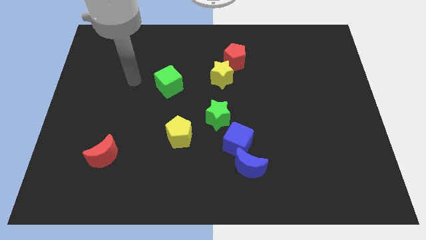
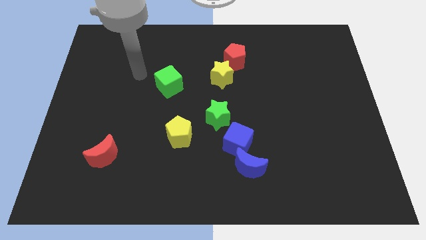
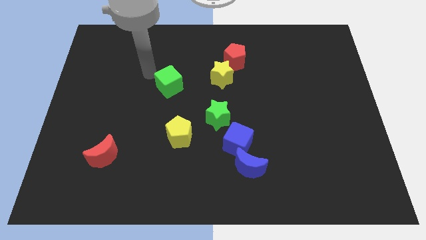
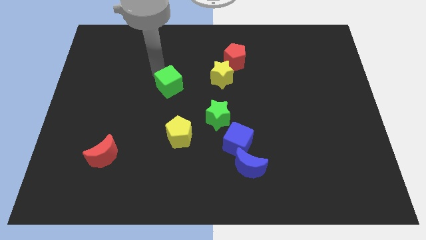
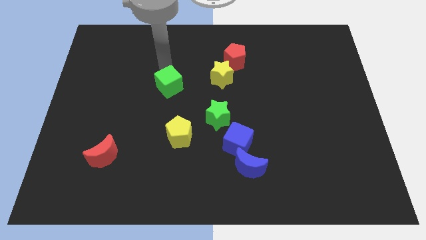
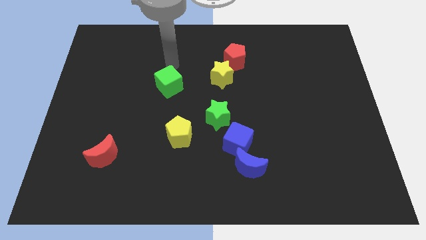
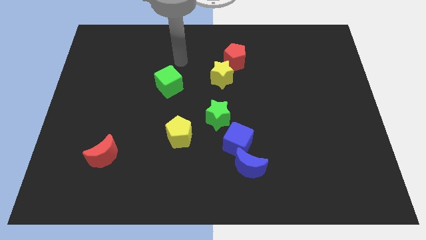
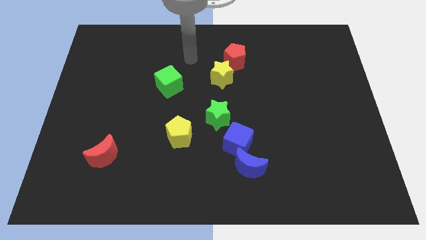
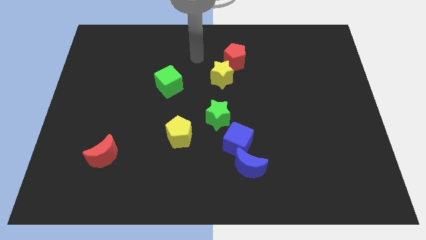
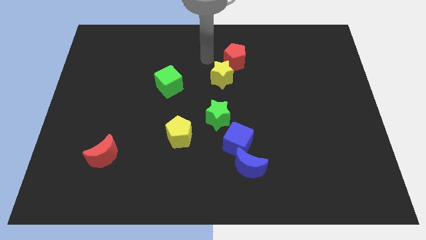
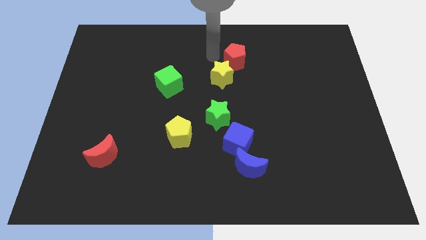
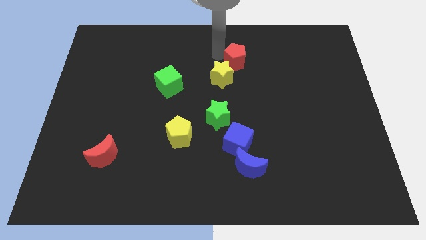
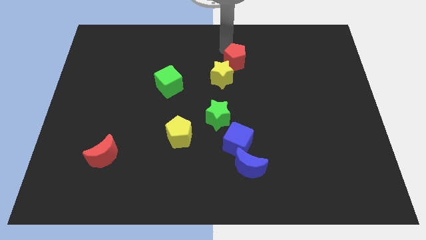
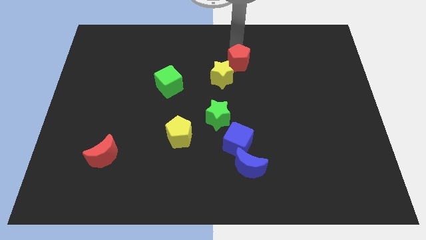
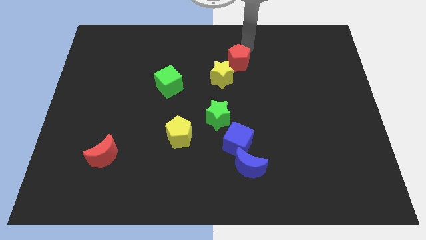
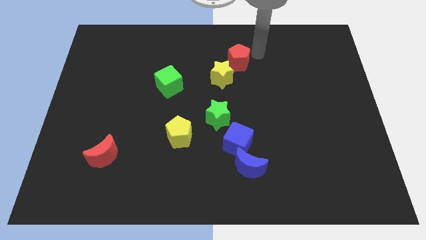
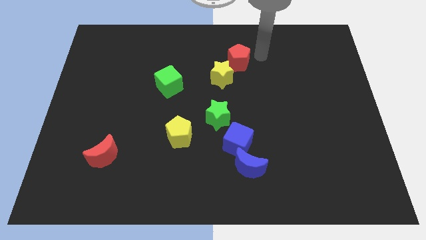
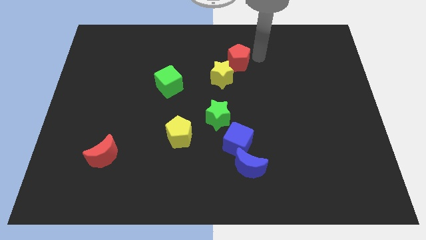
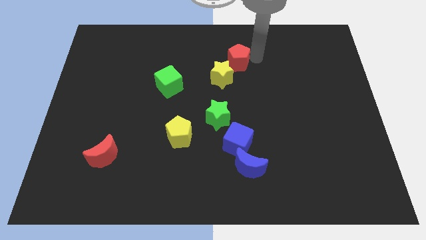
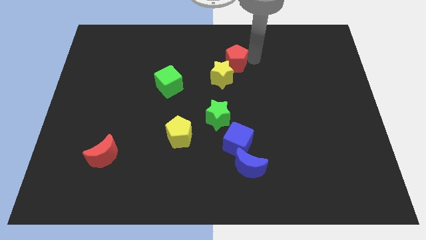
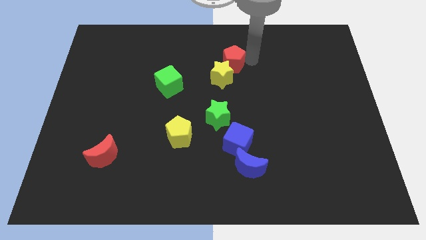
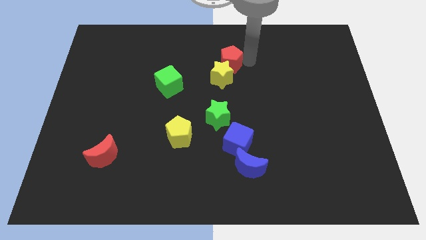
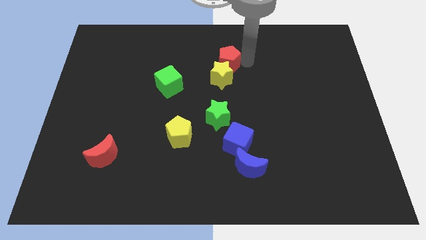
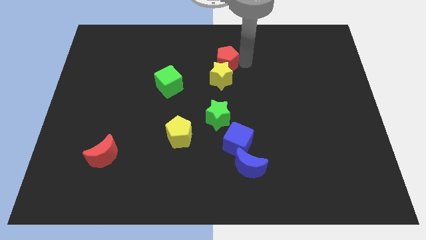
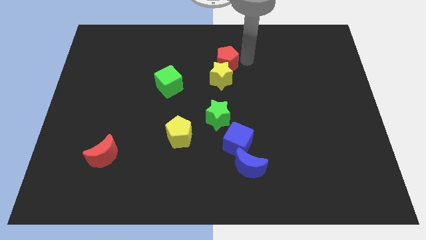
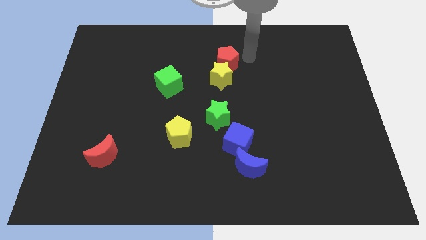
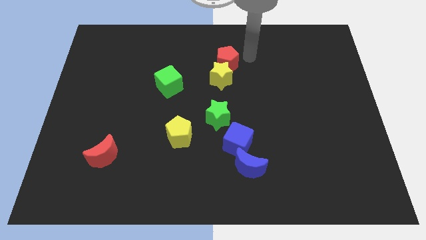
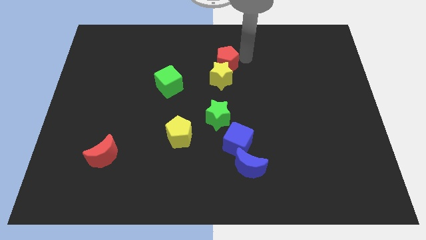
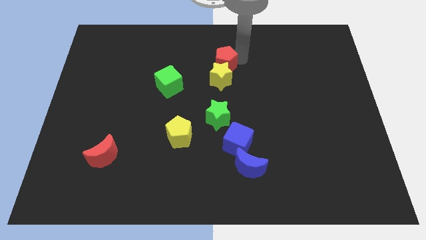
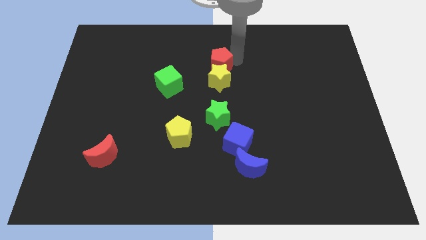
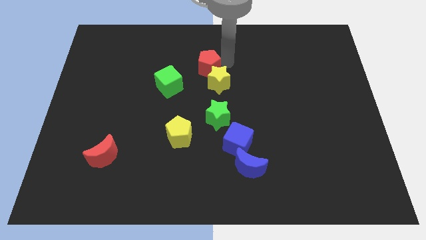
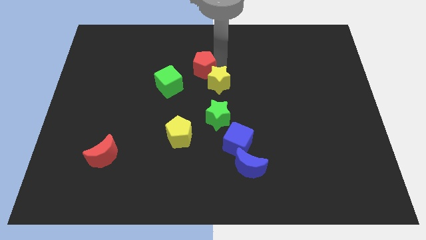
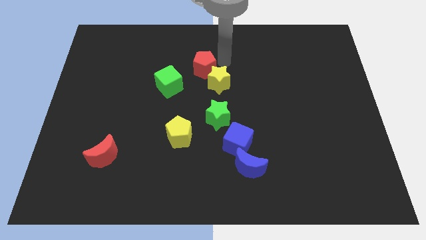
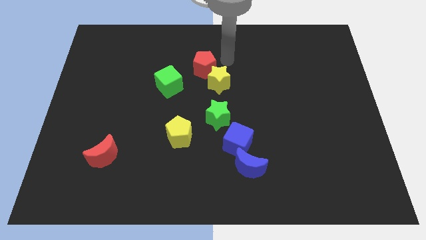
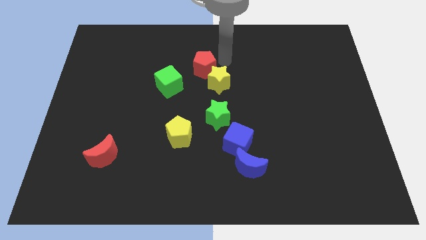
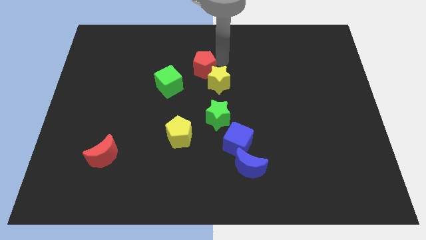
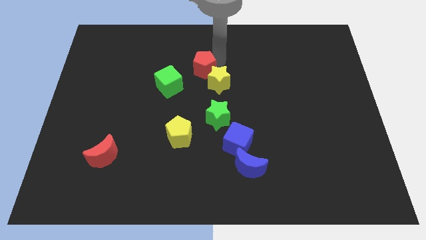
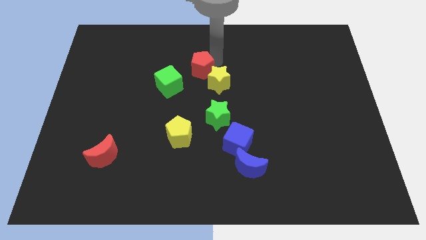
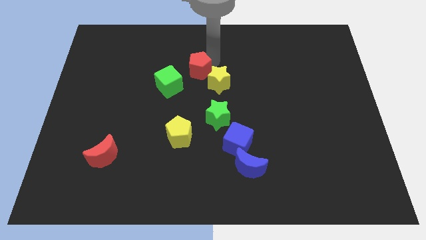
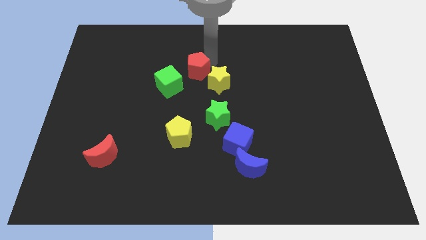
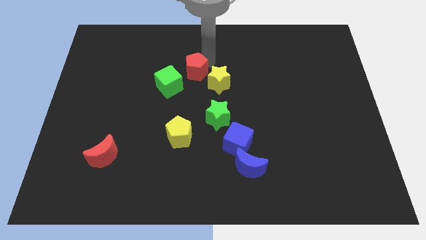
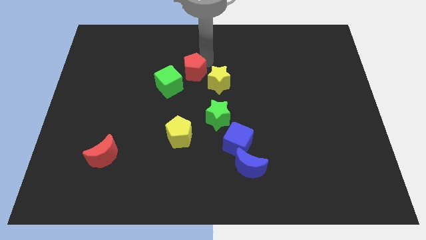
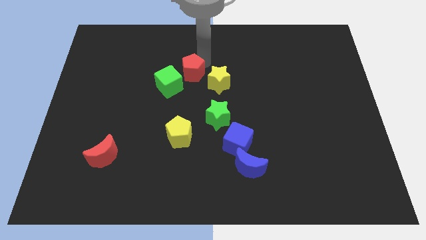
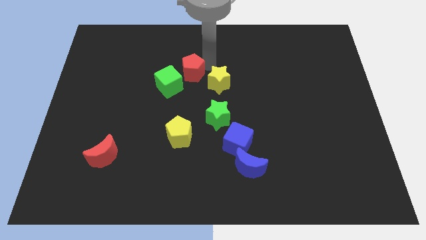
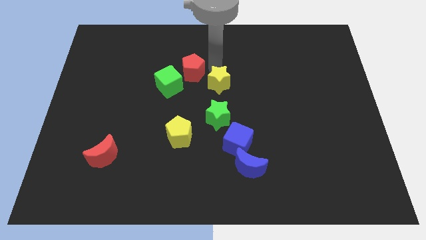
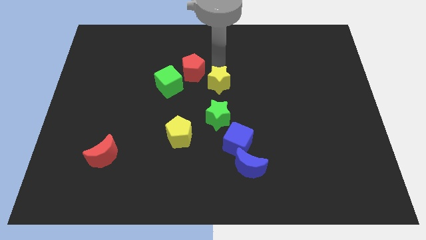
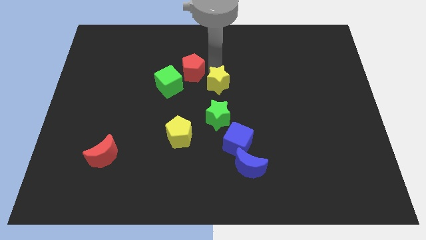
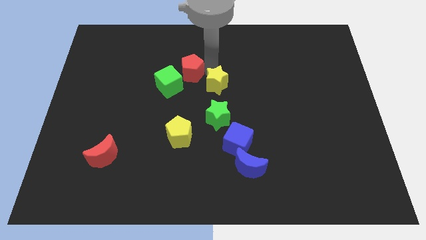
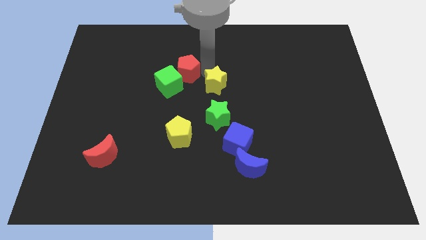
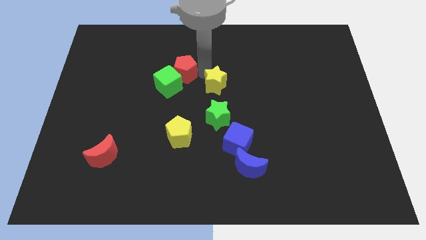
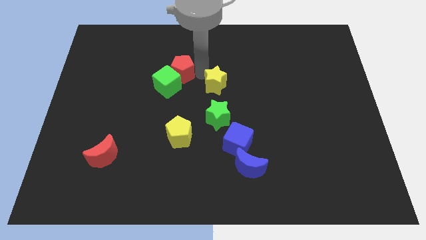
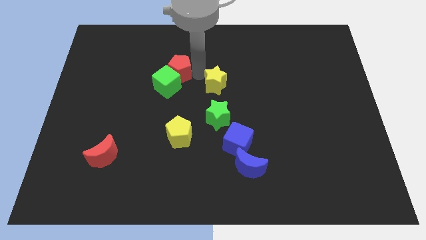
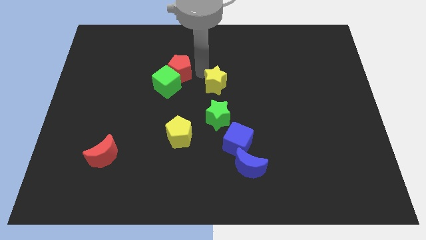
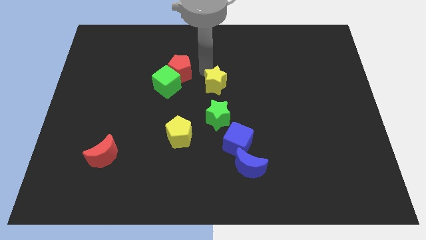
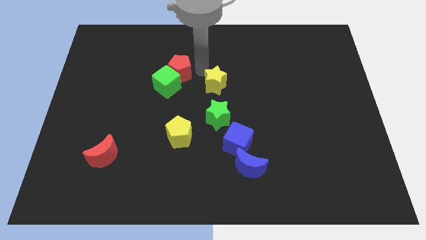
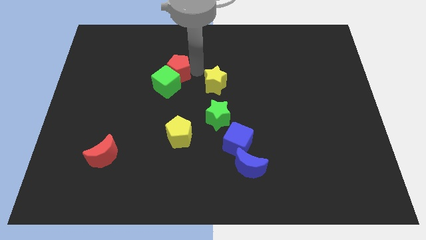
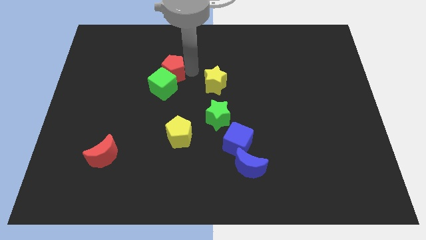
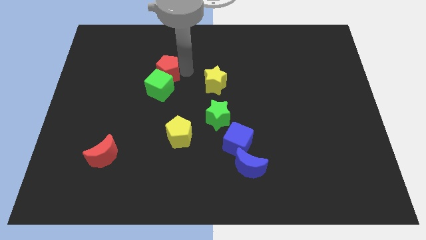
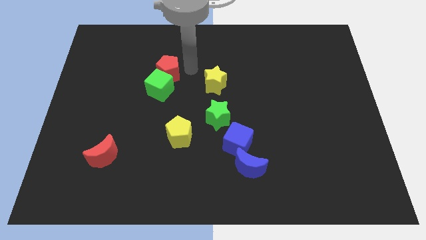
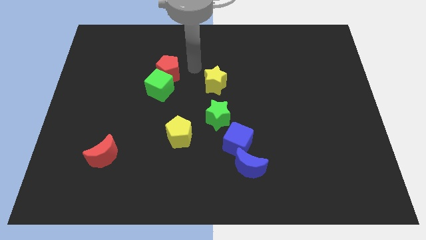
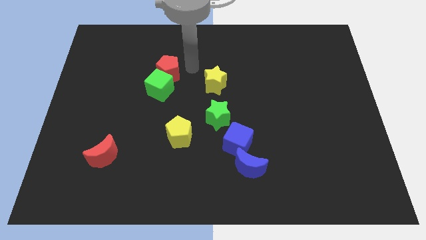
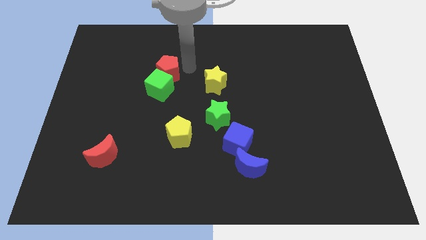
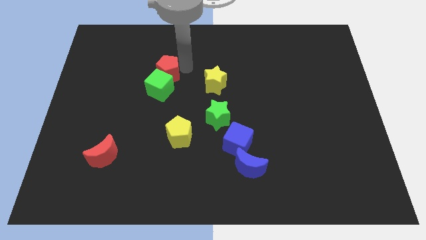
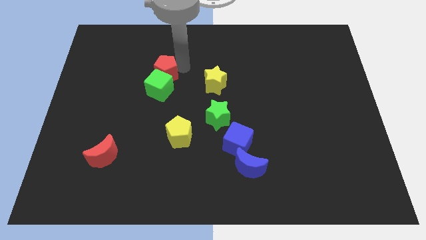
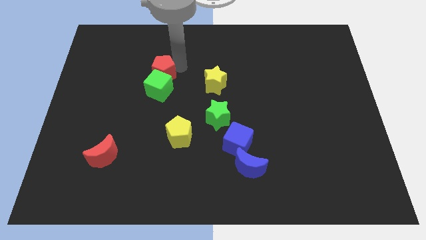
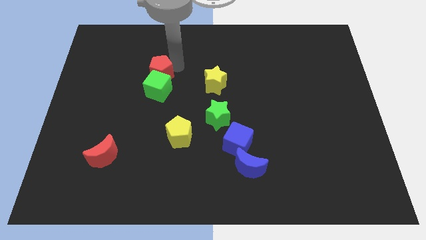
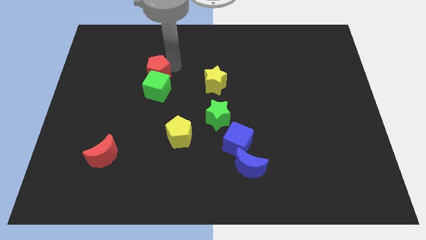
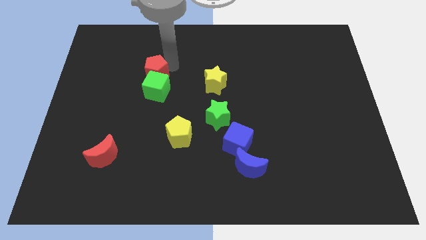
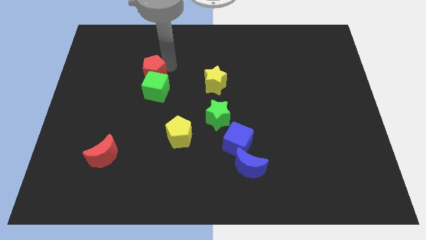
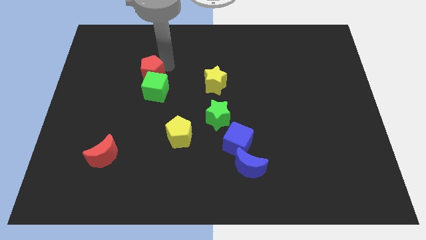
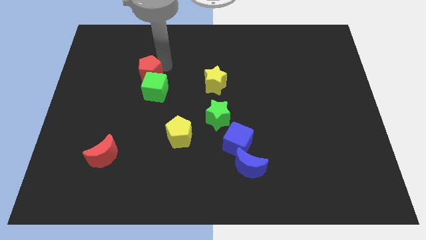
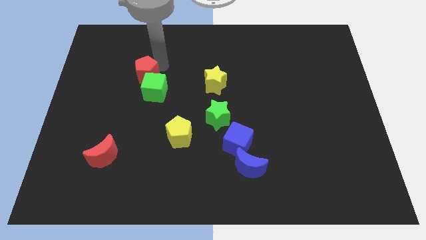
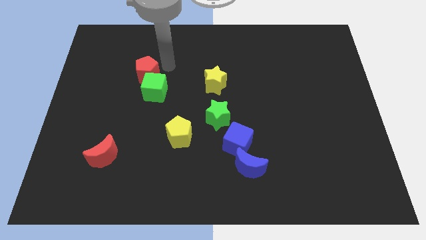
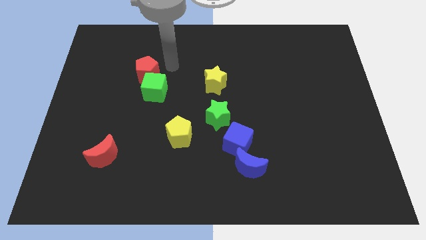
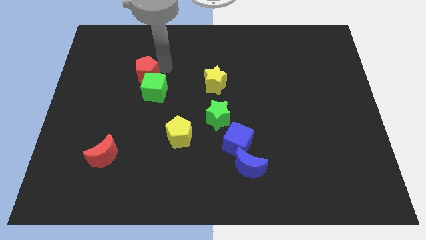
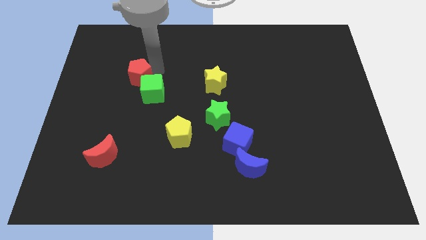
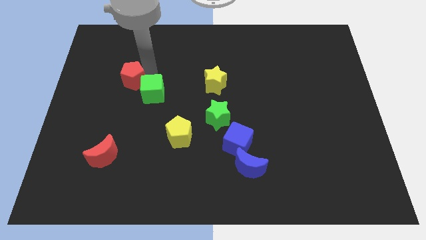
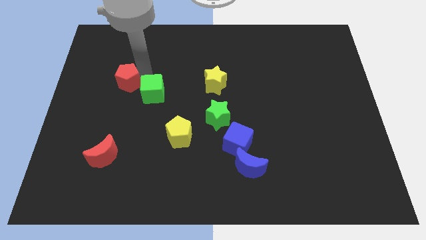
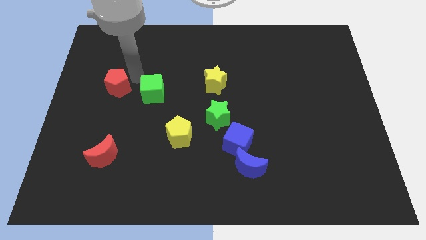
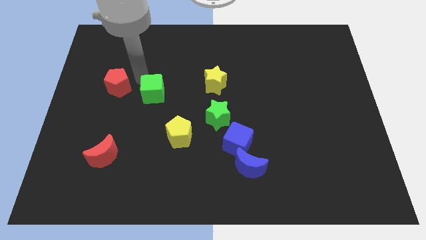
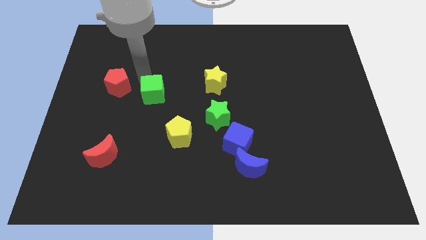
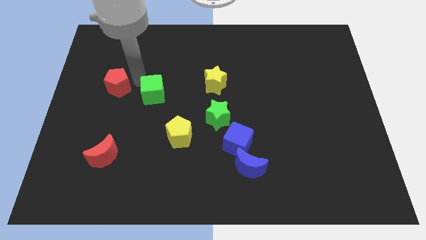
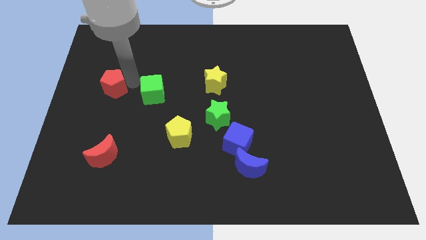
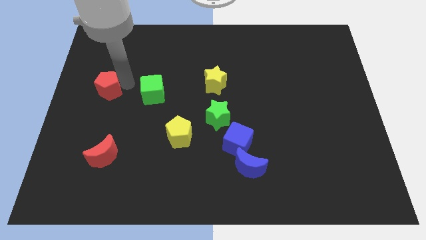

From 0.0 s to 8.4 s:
push the red pentagon to the left side of the board
